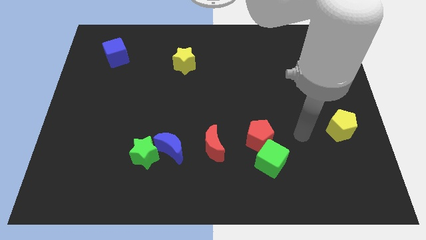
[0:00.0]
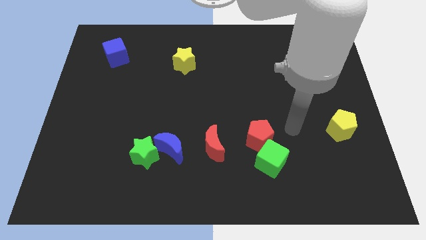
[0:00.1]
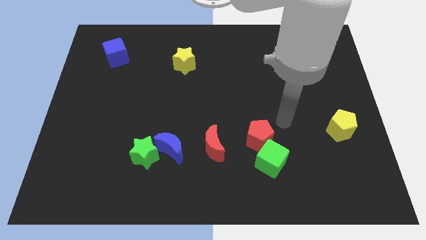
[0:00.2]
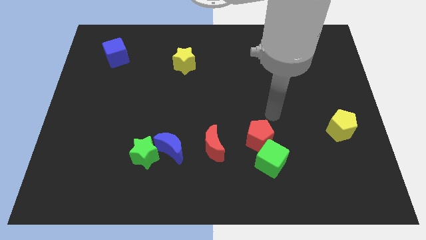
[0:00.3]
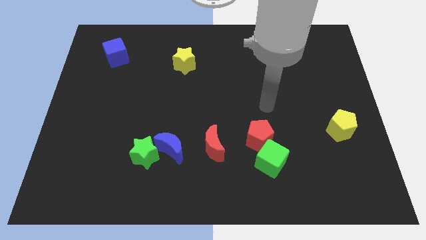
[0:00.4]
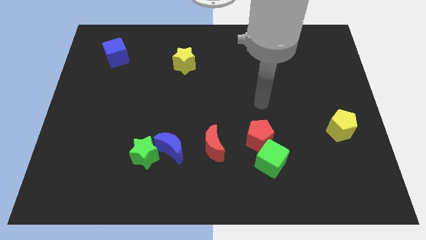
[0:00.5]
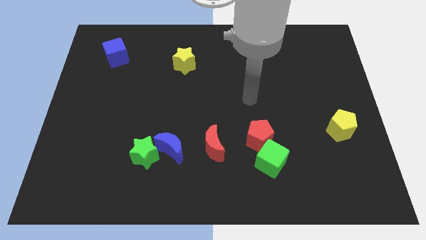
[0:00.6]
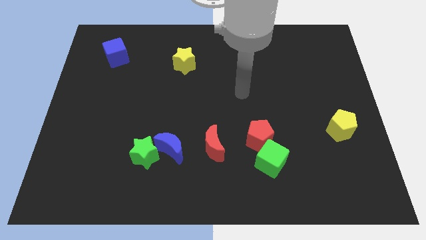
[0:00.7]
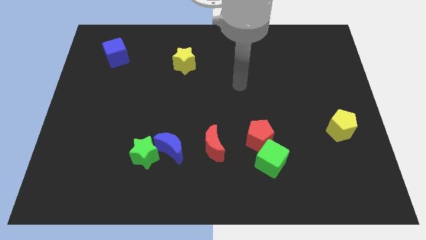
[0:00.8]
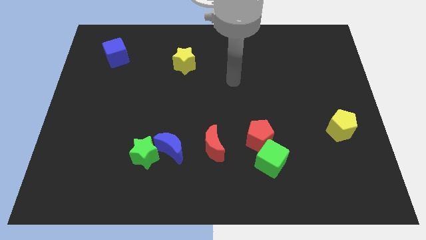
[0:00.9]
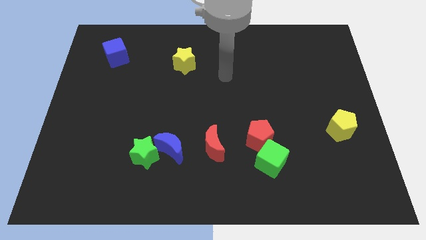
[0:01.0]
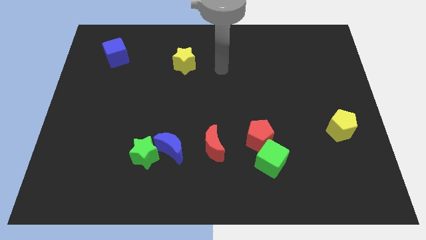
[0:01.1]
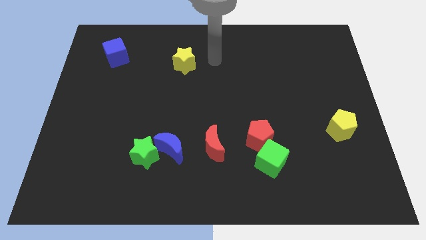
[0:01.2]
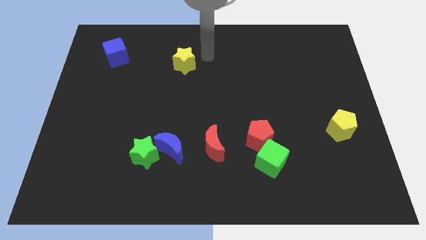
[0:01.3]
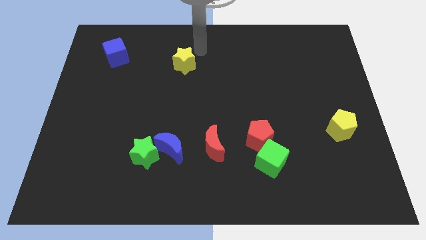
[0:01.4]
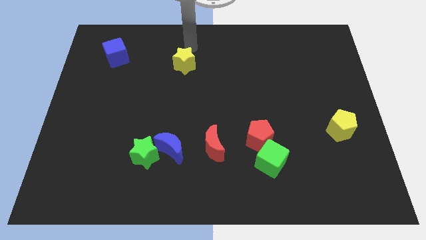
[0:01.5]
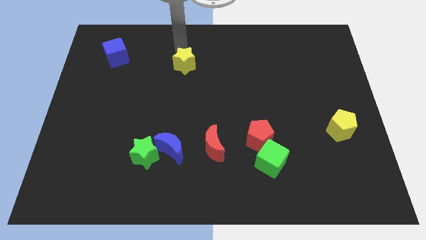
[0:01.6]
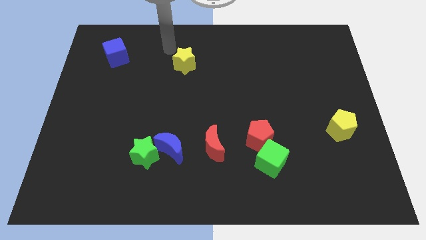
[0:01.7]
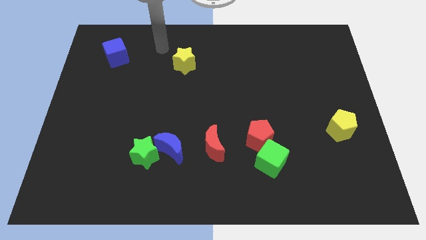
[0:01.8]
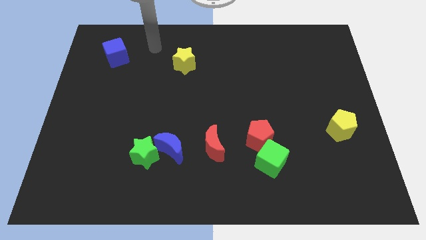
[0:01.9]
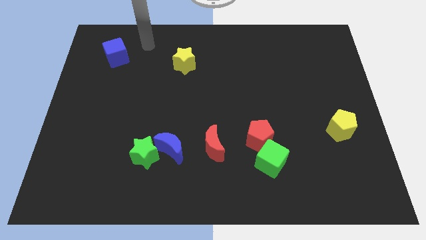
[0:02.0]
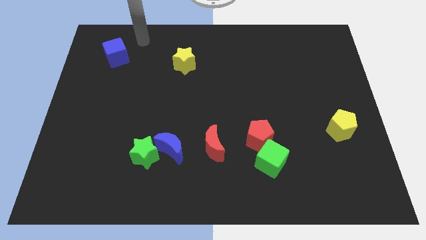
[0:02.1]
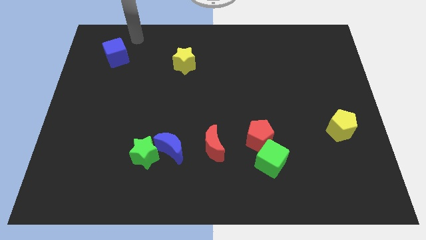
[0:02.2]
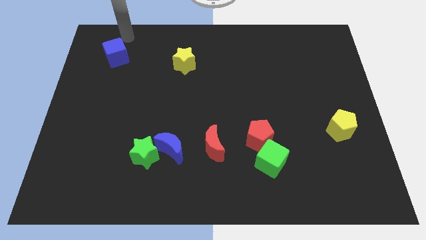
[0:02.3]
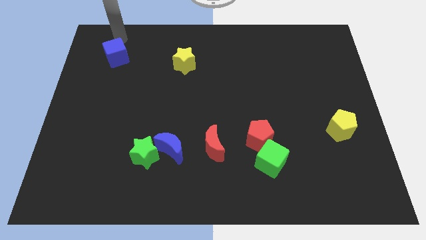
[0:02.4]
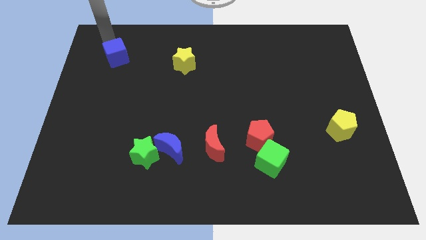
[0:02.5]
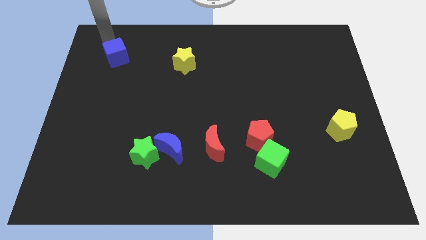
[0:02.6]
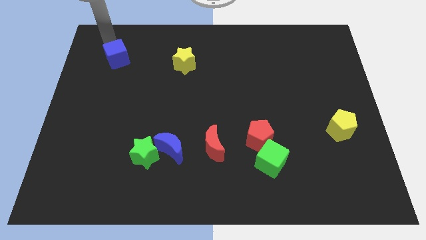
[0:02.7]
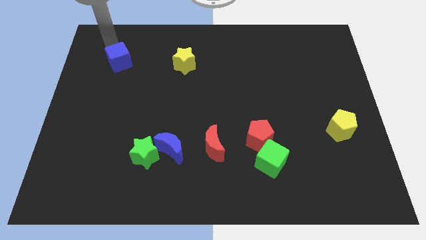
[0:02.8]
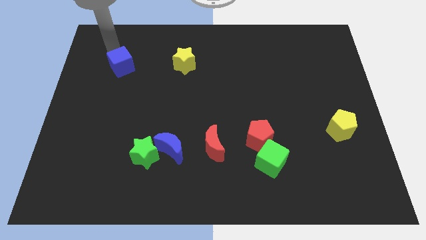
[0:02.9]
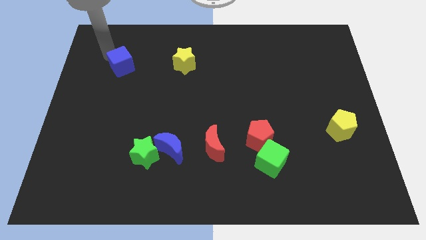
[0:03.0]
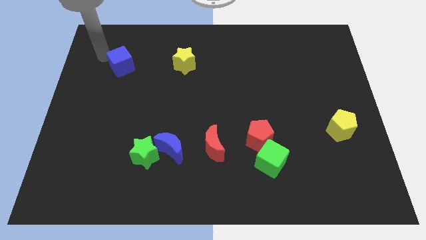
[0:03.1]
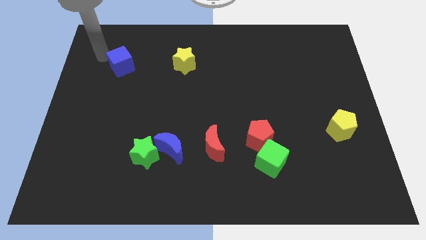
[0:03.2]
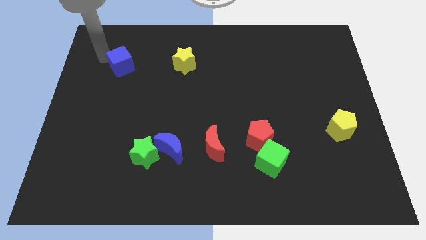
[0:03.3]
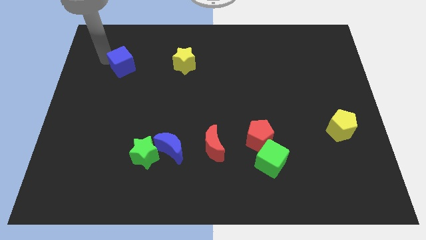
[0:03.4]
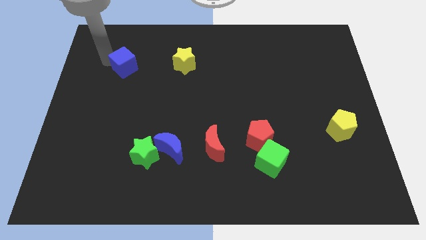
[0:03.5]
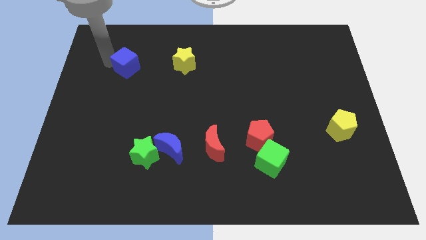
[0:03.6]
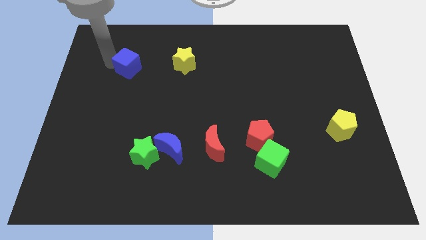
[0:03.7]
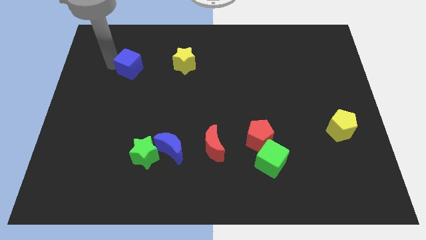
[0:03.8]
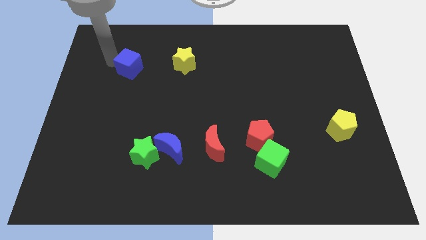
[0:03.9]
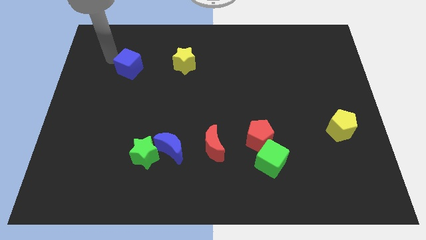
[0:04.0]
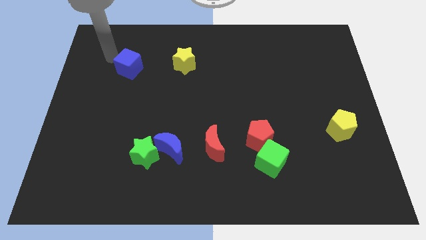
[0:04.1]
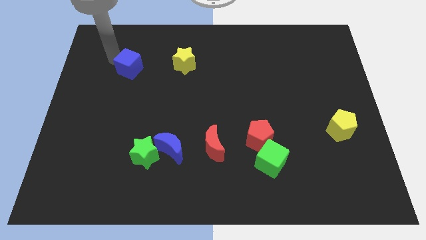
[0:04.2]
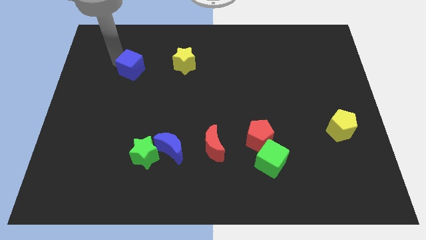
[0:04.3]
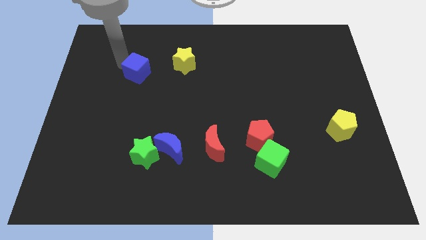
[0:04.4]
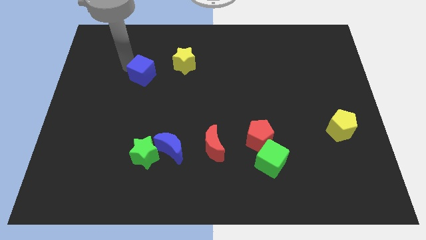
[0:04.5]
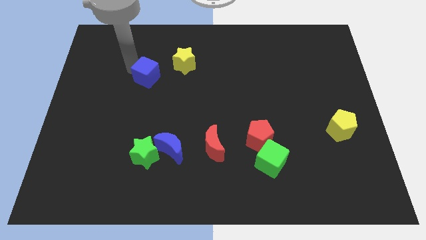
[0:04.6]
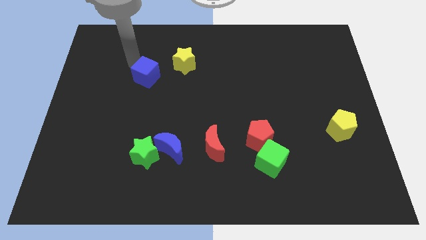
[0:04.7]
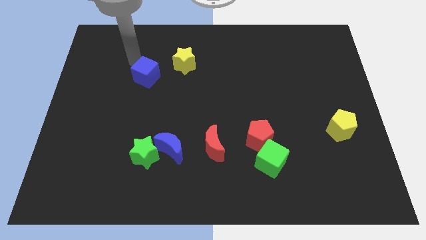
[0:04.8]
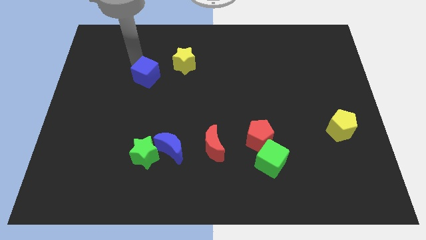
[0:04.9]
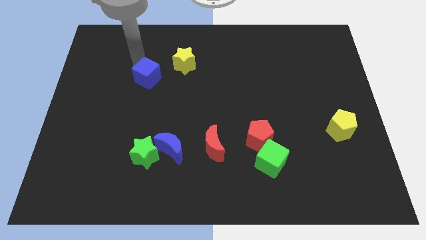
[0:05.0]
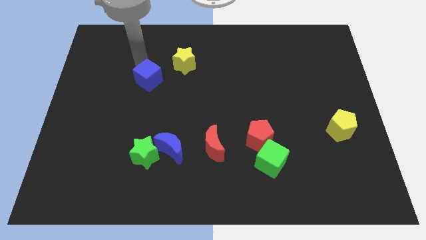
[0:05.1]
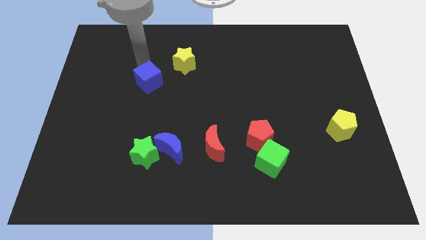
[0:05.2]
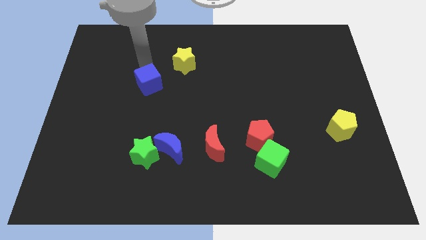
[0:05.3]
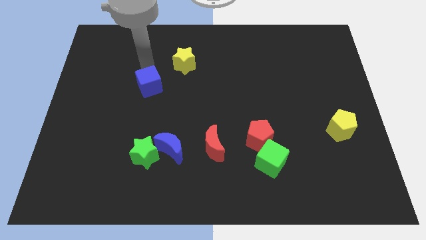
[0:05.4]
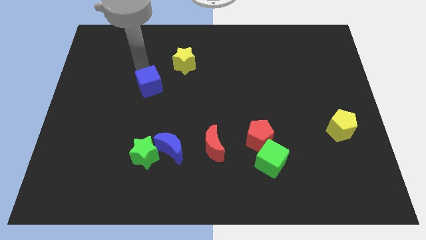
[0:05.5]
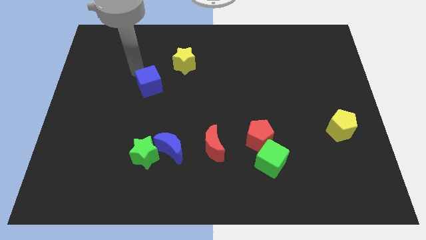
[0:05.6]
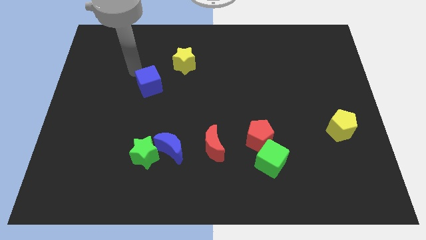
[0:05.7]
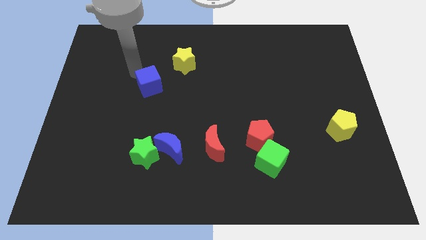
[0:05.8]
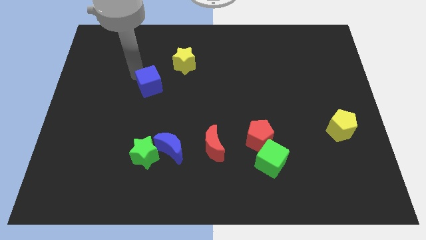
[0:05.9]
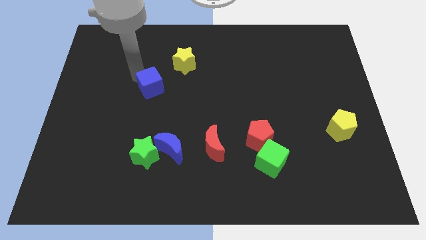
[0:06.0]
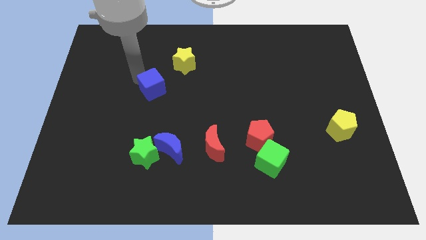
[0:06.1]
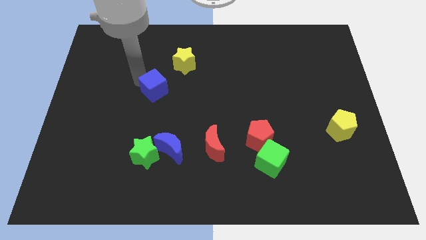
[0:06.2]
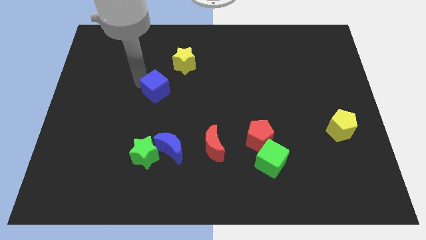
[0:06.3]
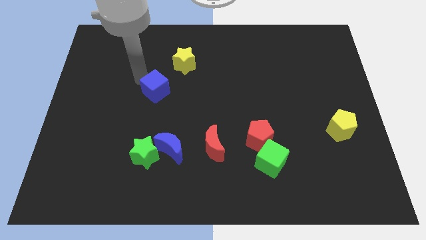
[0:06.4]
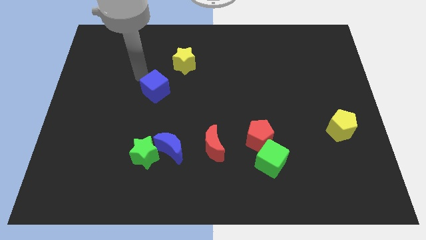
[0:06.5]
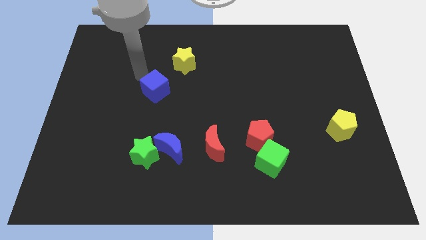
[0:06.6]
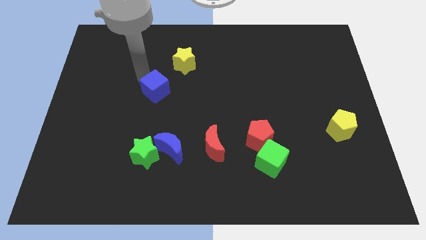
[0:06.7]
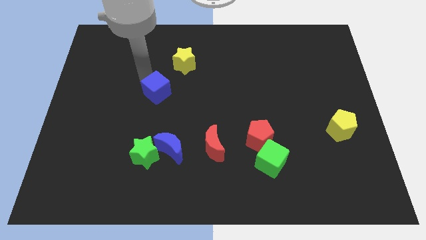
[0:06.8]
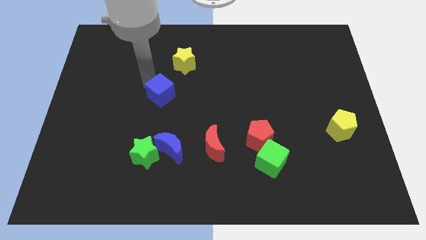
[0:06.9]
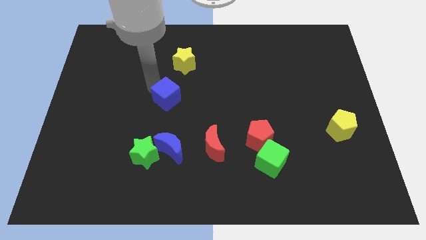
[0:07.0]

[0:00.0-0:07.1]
move the blue cube down and then right

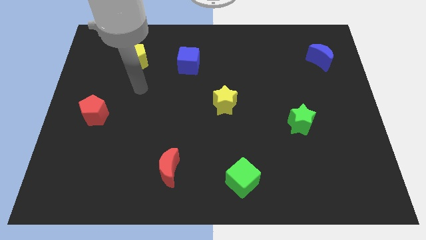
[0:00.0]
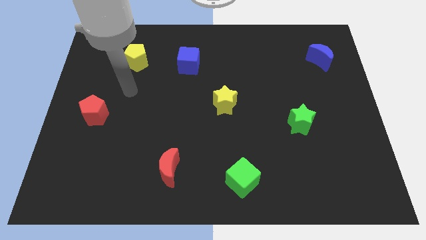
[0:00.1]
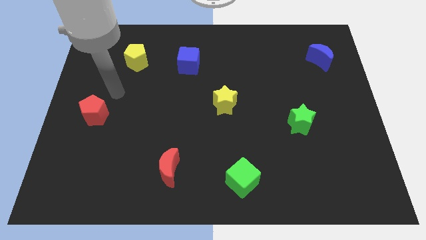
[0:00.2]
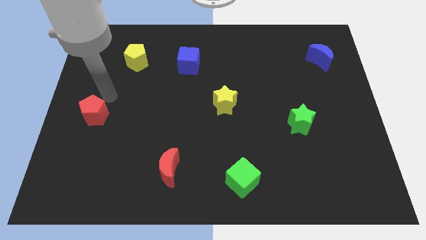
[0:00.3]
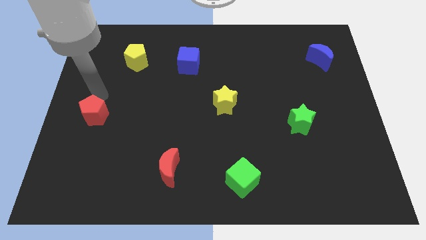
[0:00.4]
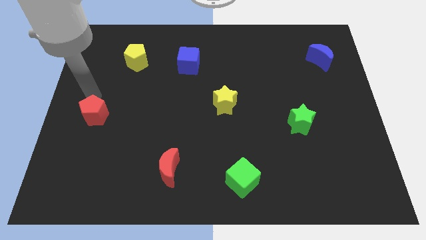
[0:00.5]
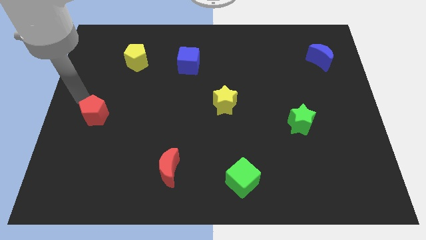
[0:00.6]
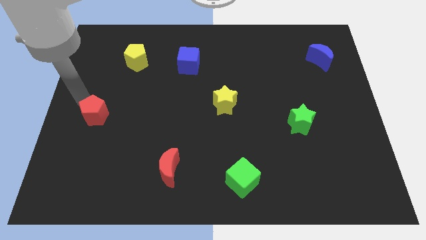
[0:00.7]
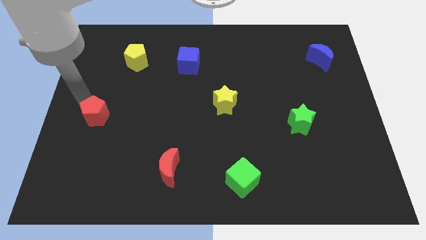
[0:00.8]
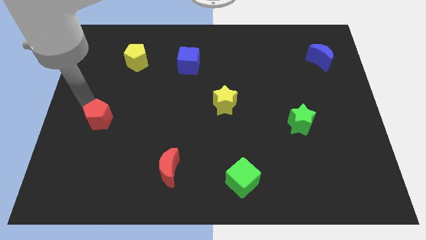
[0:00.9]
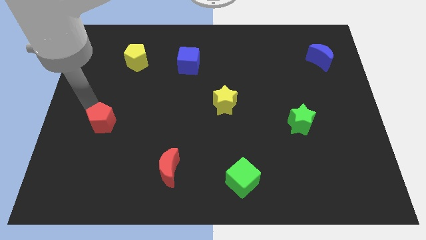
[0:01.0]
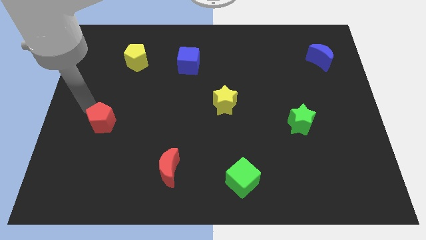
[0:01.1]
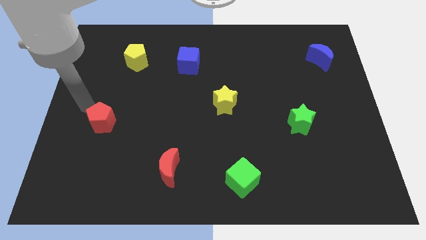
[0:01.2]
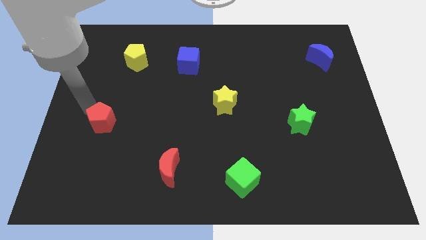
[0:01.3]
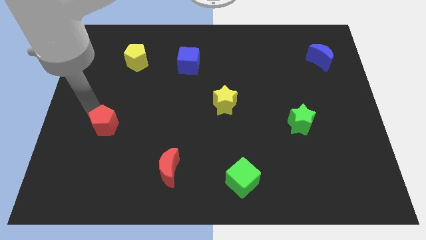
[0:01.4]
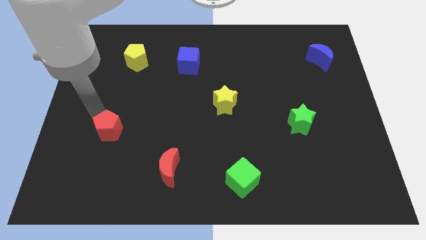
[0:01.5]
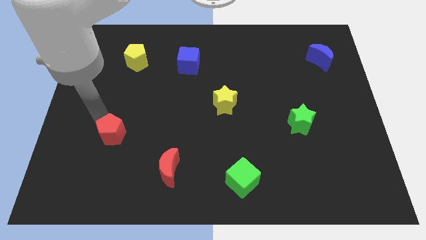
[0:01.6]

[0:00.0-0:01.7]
slide the red pentagon diagonally down and to the right a bit
